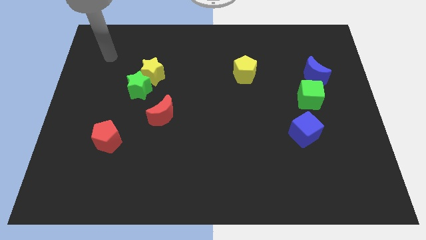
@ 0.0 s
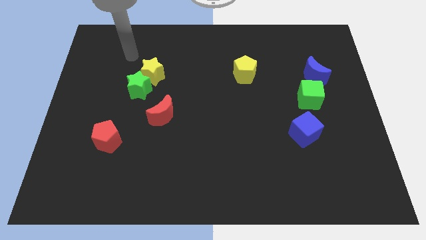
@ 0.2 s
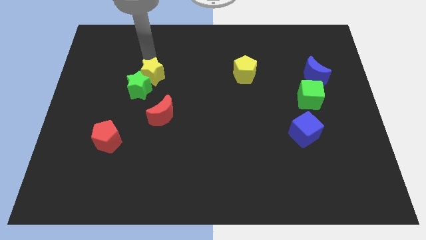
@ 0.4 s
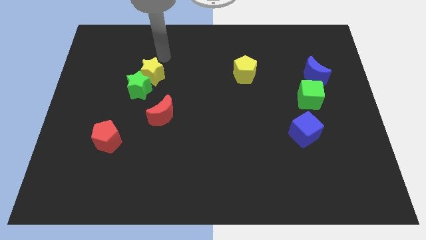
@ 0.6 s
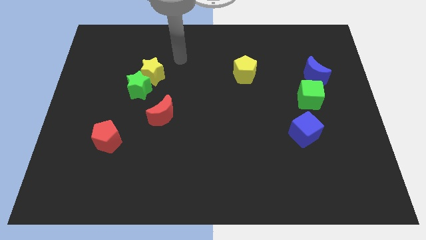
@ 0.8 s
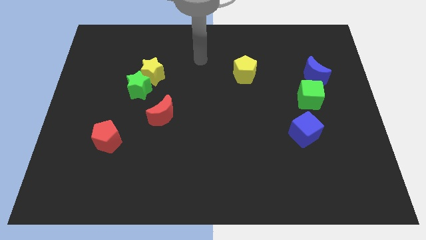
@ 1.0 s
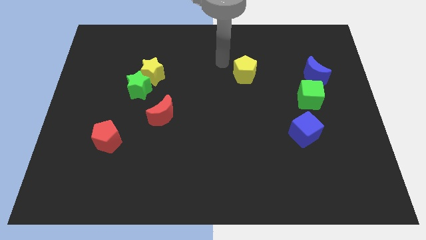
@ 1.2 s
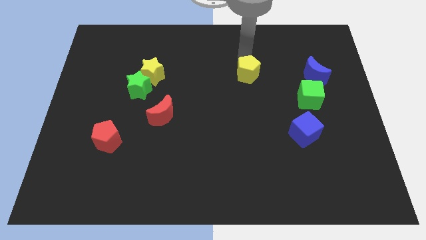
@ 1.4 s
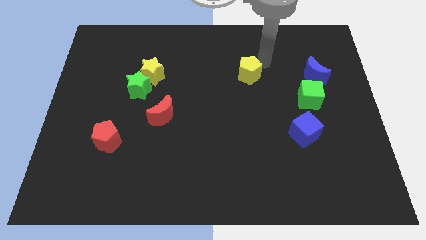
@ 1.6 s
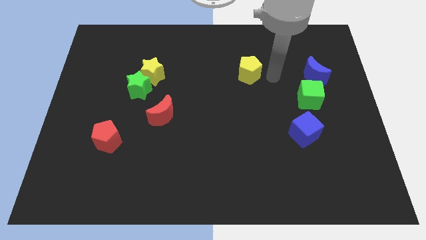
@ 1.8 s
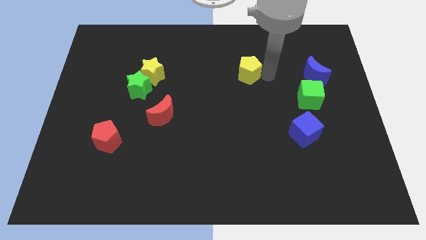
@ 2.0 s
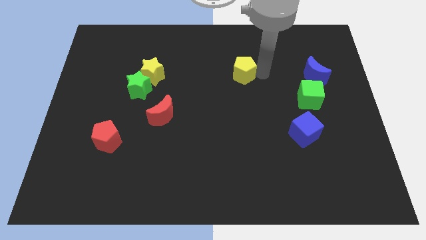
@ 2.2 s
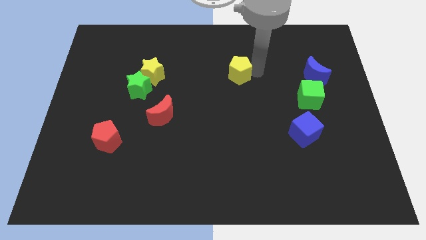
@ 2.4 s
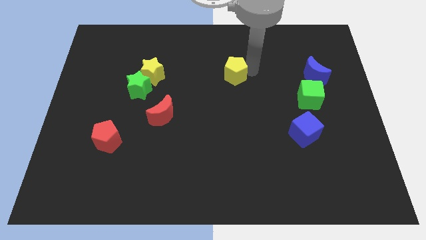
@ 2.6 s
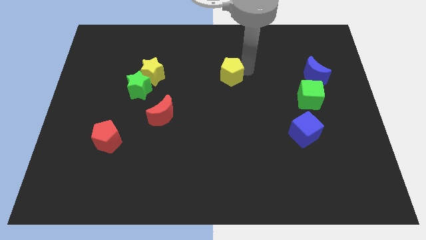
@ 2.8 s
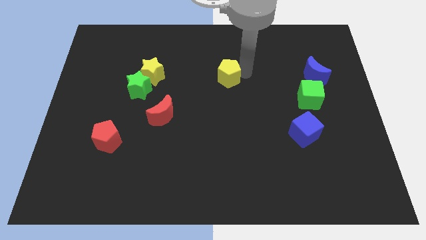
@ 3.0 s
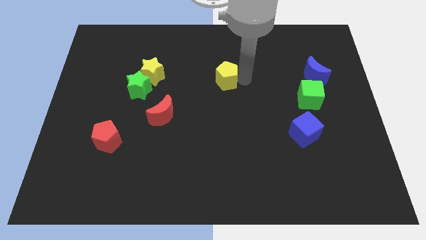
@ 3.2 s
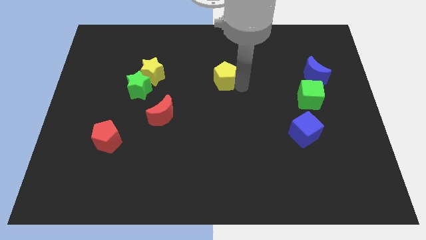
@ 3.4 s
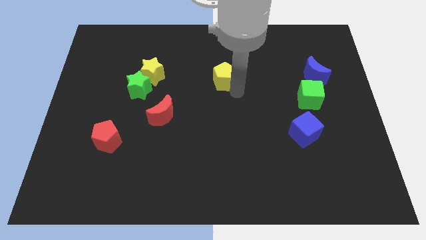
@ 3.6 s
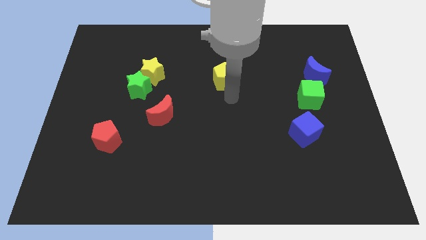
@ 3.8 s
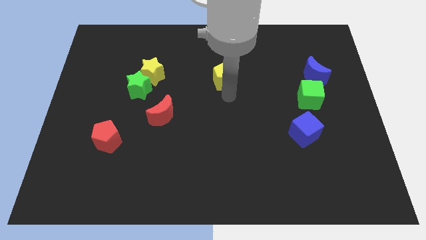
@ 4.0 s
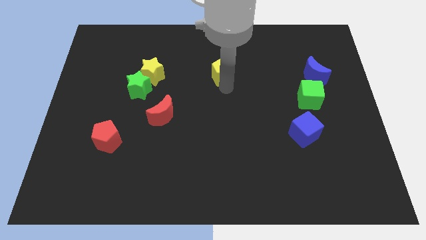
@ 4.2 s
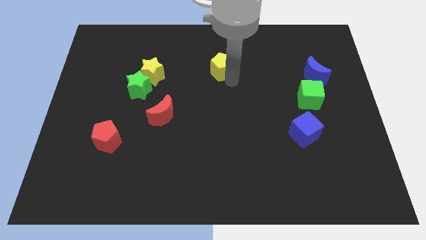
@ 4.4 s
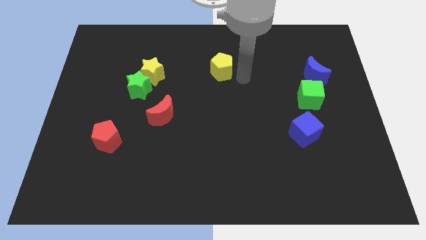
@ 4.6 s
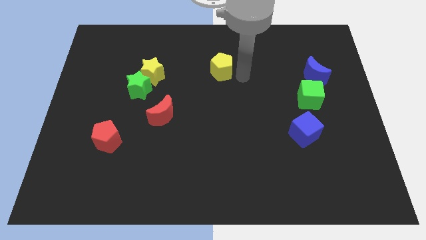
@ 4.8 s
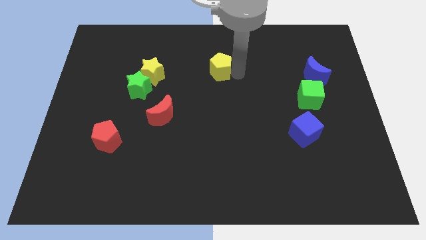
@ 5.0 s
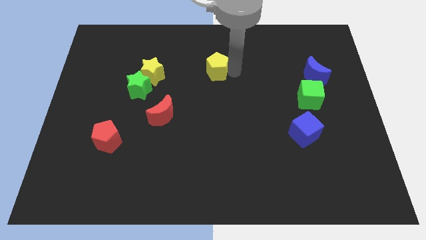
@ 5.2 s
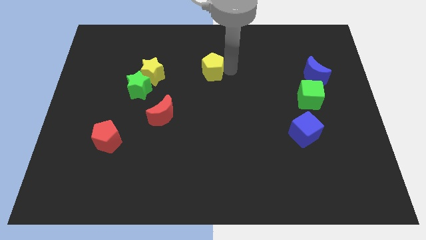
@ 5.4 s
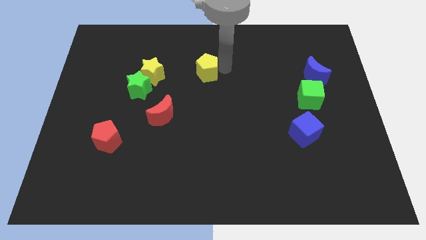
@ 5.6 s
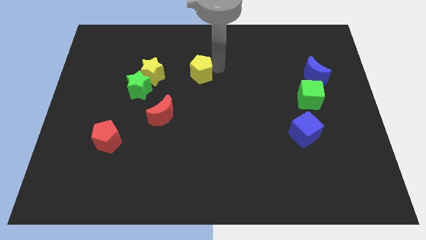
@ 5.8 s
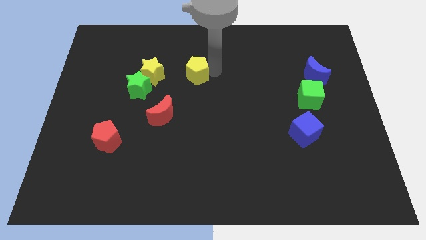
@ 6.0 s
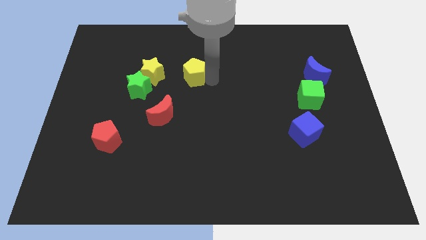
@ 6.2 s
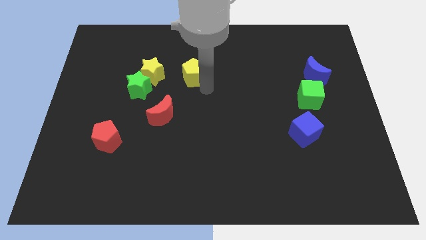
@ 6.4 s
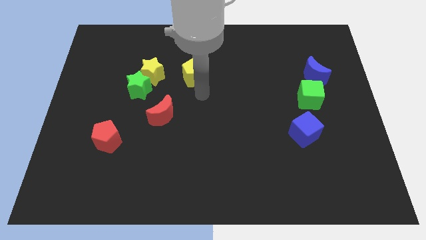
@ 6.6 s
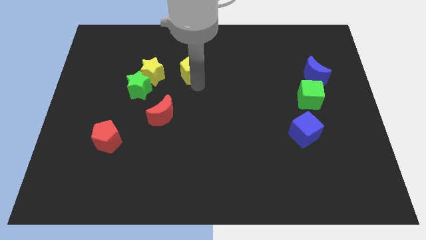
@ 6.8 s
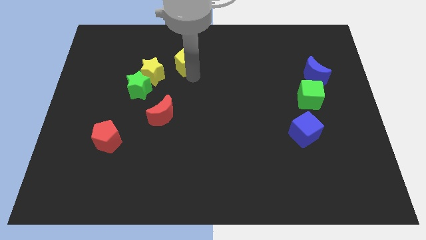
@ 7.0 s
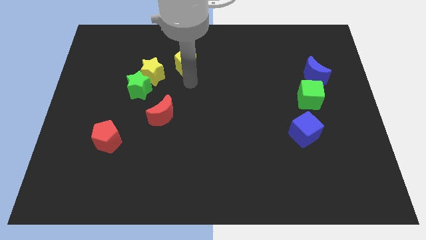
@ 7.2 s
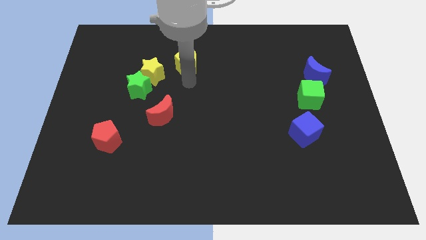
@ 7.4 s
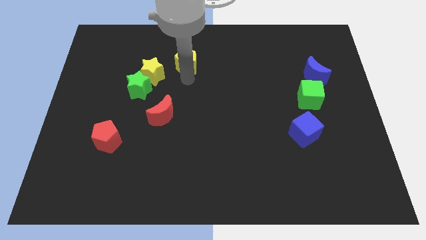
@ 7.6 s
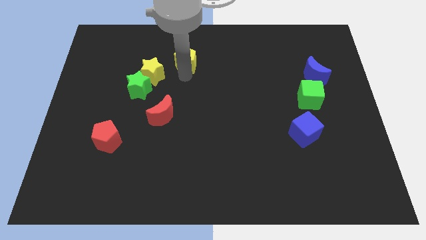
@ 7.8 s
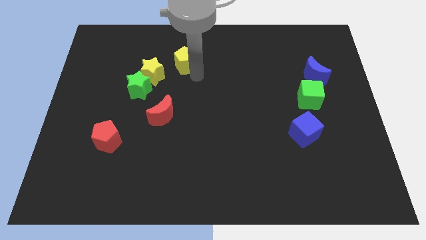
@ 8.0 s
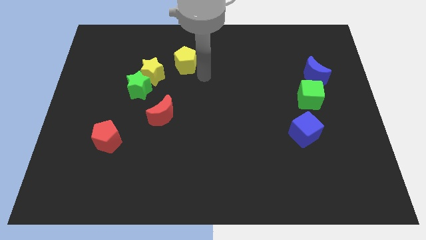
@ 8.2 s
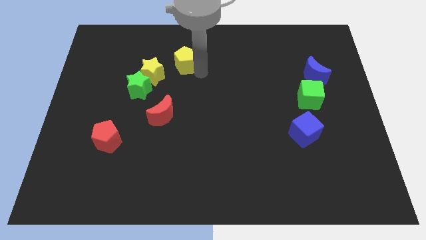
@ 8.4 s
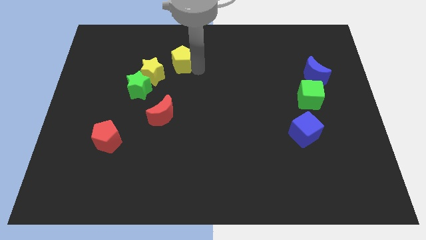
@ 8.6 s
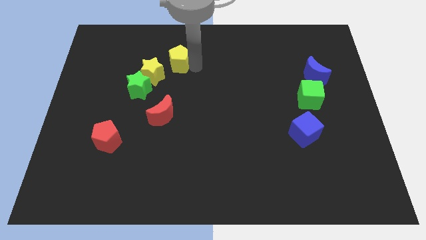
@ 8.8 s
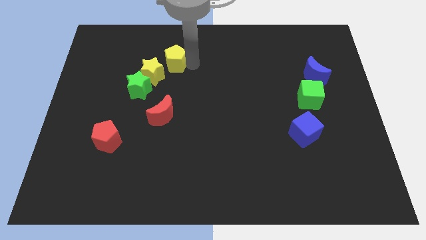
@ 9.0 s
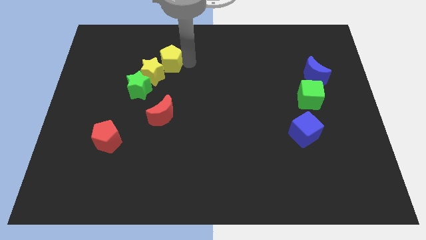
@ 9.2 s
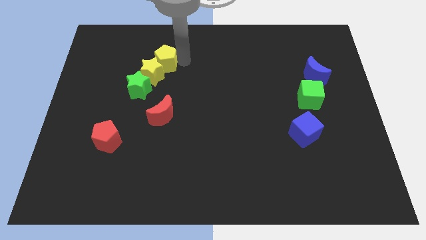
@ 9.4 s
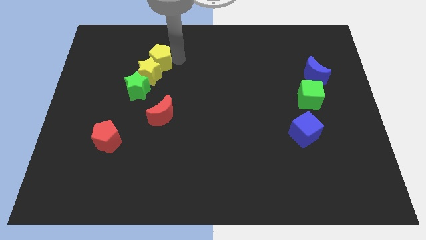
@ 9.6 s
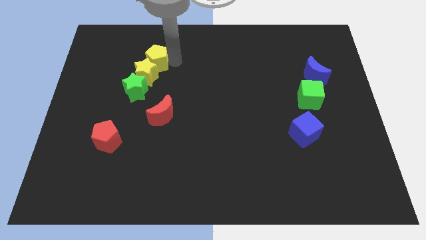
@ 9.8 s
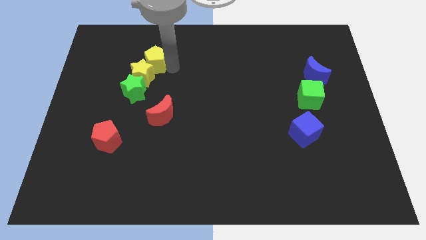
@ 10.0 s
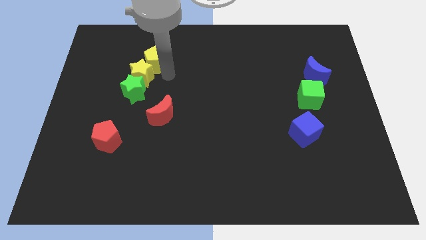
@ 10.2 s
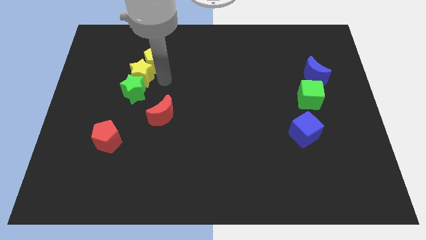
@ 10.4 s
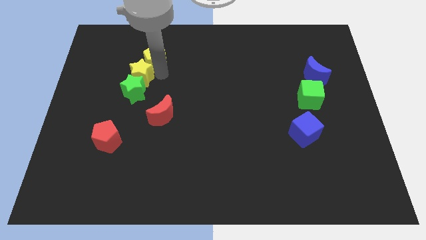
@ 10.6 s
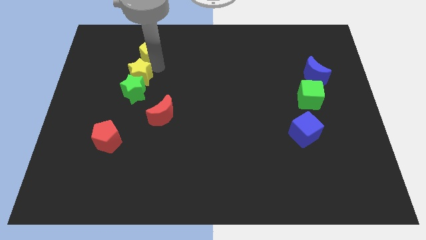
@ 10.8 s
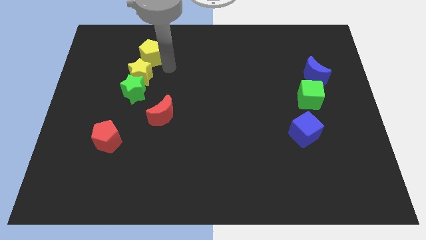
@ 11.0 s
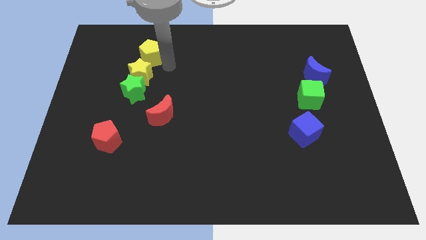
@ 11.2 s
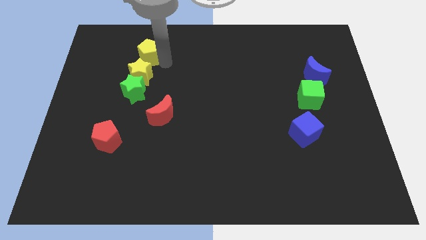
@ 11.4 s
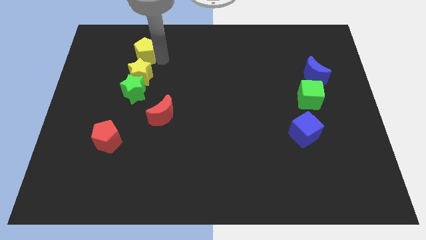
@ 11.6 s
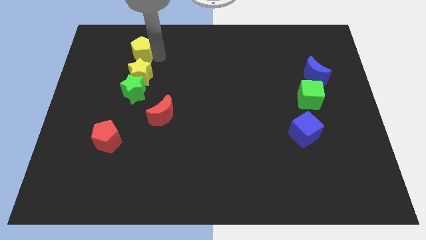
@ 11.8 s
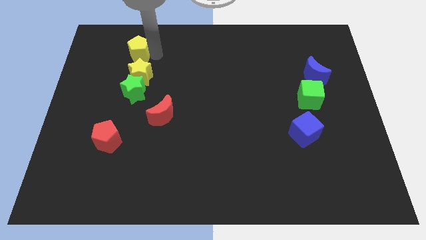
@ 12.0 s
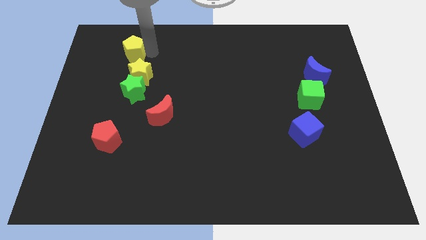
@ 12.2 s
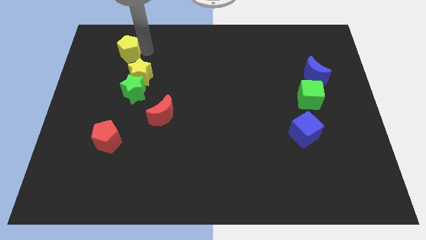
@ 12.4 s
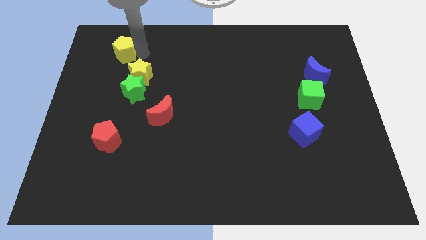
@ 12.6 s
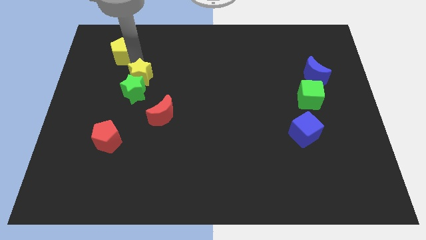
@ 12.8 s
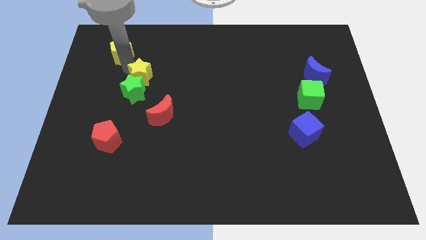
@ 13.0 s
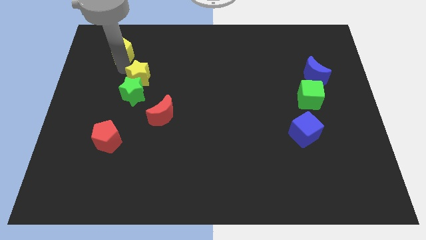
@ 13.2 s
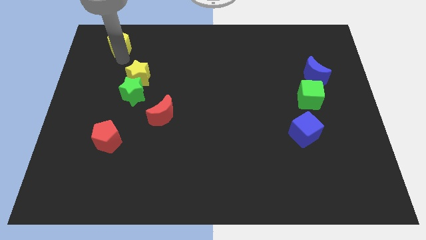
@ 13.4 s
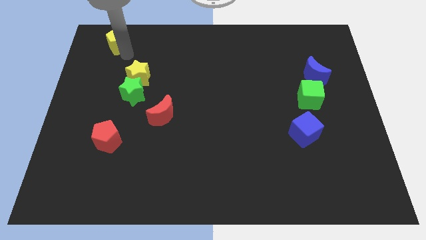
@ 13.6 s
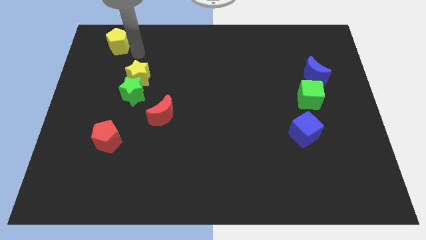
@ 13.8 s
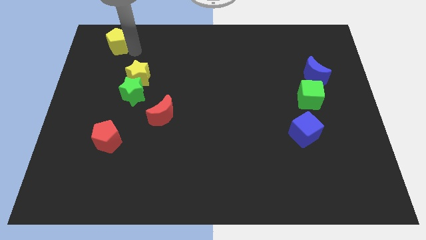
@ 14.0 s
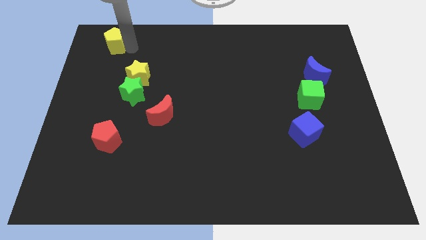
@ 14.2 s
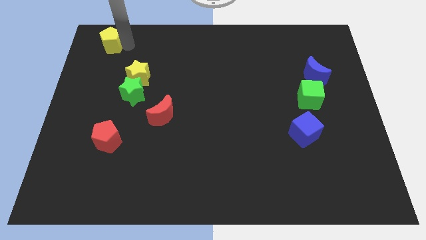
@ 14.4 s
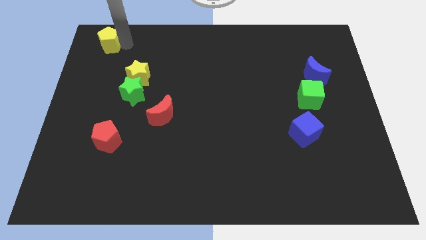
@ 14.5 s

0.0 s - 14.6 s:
slide the yellow pentagon to the top left of the board
